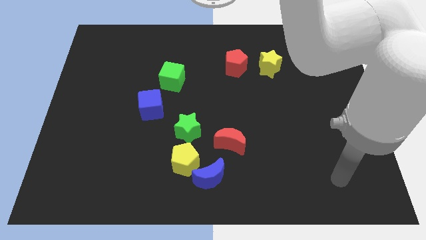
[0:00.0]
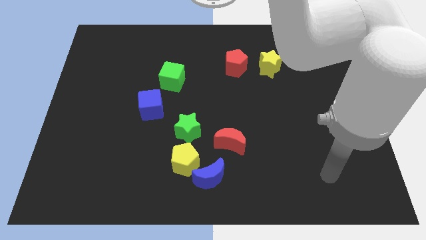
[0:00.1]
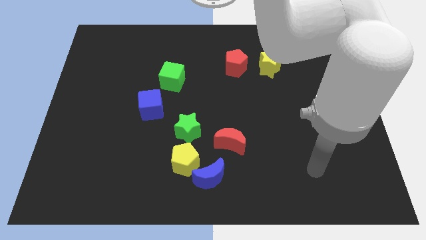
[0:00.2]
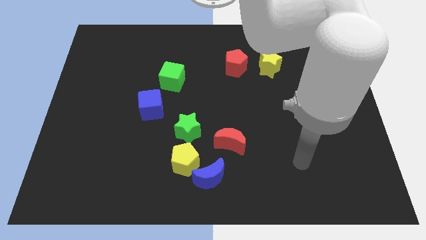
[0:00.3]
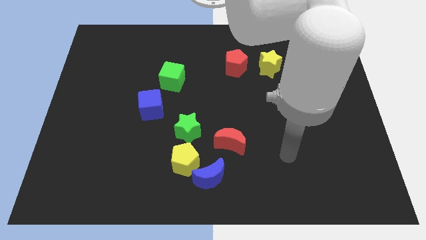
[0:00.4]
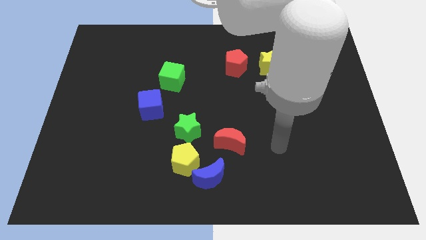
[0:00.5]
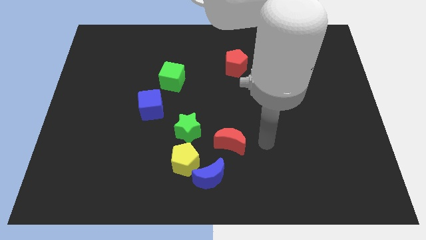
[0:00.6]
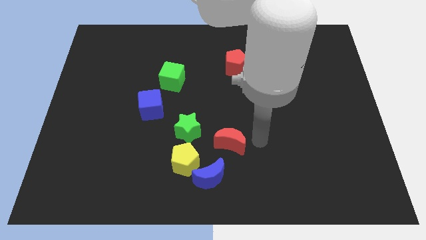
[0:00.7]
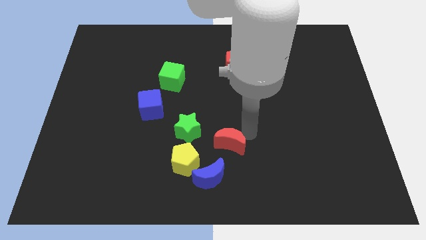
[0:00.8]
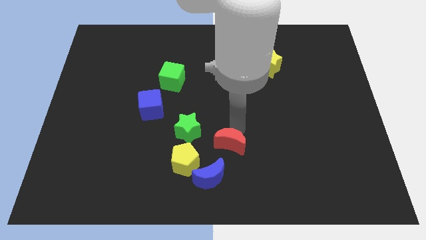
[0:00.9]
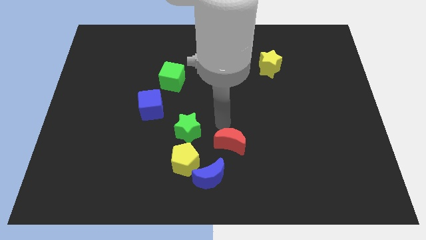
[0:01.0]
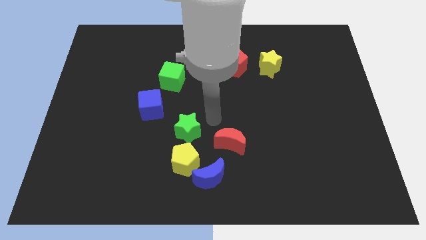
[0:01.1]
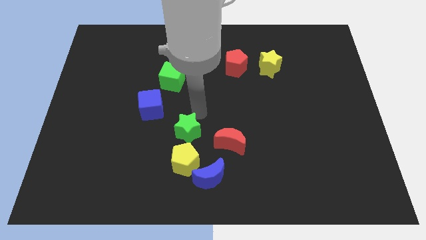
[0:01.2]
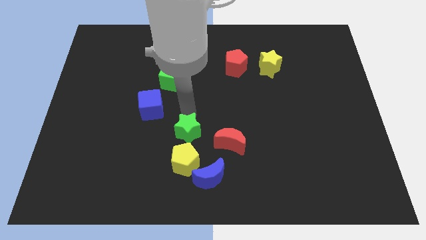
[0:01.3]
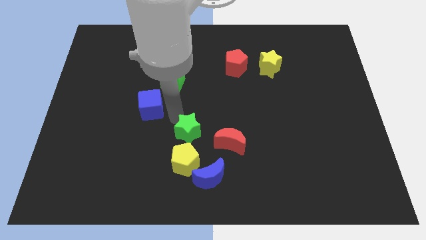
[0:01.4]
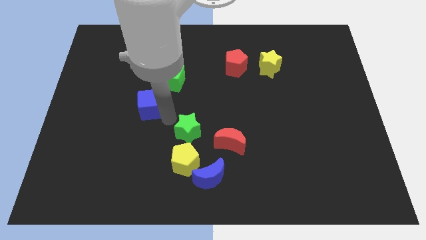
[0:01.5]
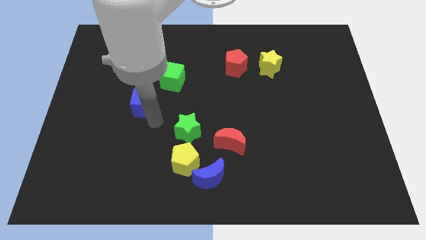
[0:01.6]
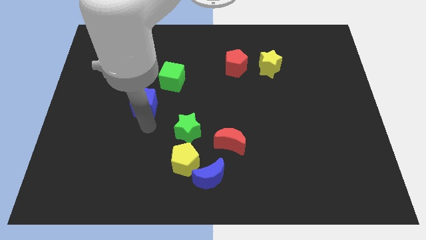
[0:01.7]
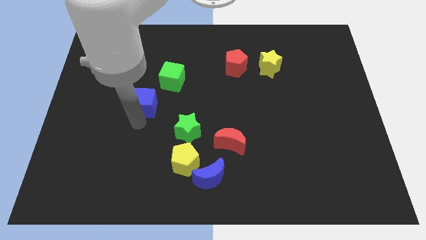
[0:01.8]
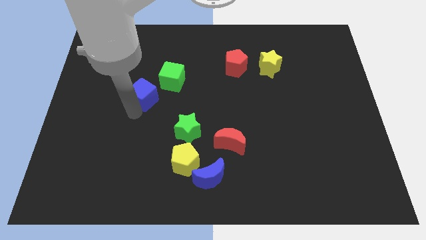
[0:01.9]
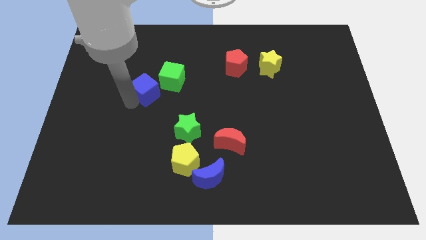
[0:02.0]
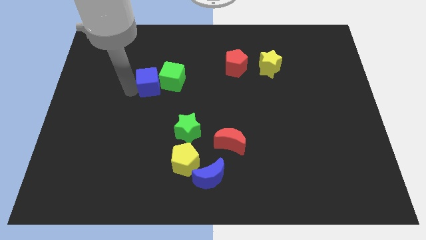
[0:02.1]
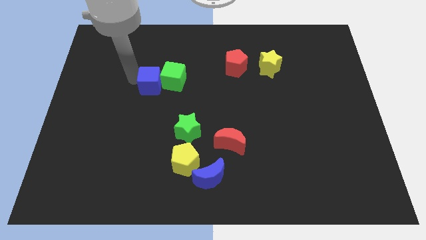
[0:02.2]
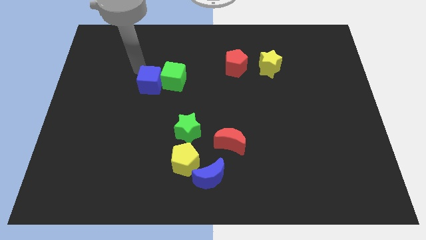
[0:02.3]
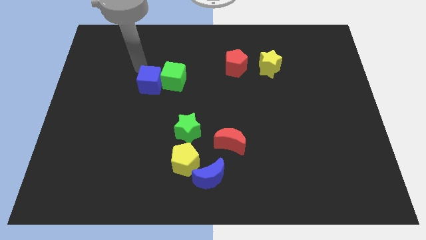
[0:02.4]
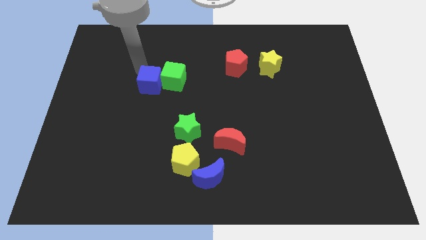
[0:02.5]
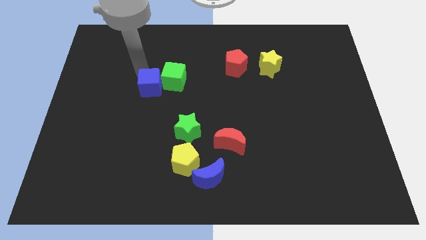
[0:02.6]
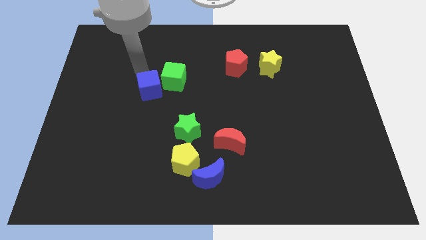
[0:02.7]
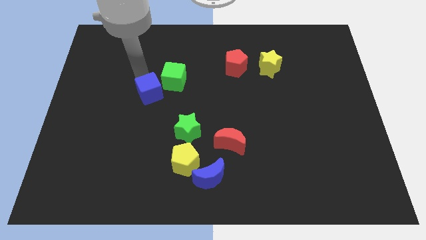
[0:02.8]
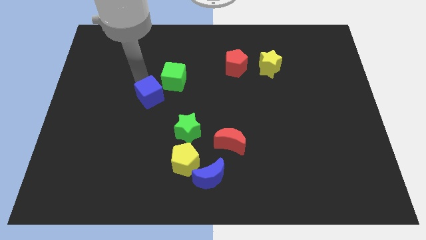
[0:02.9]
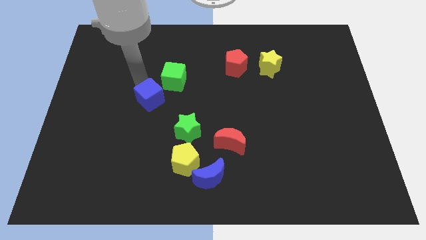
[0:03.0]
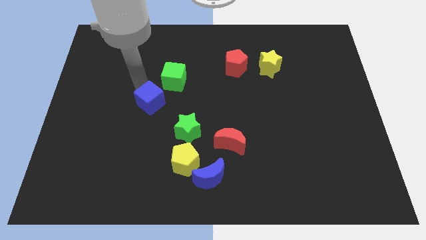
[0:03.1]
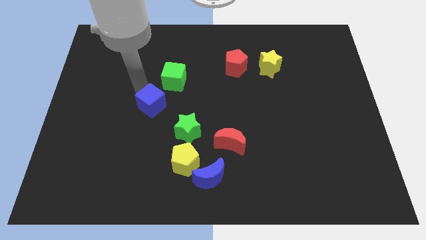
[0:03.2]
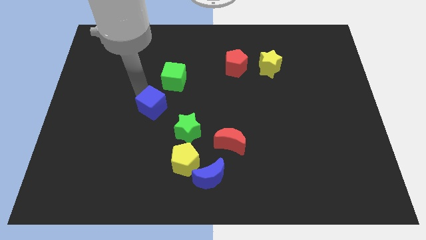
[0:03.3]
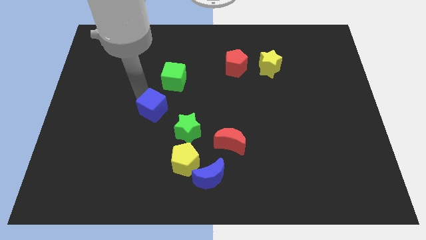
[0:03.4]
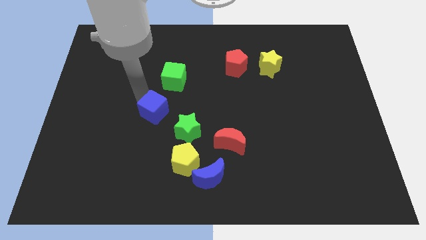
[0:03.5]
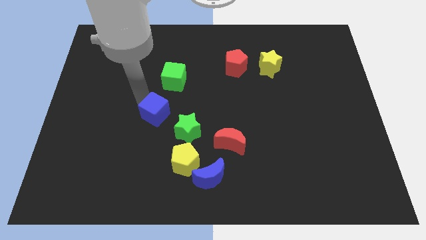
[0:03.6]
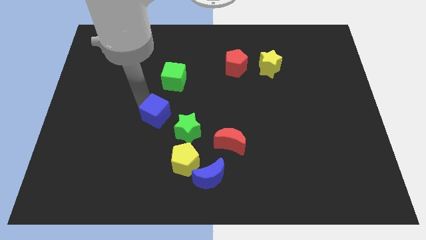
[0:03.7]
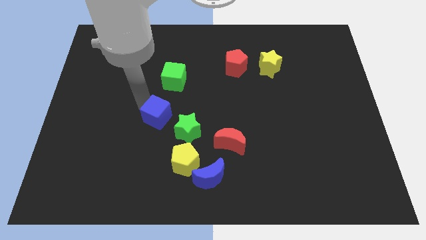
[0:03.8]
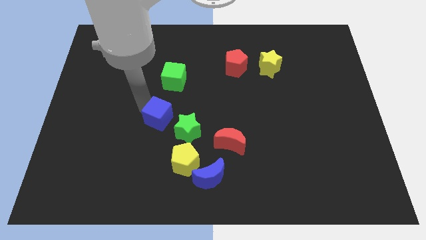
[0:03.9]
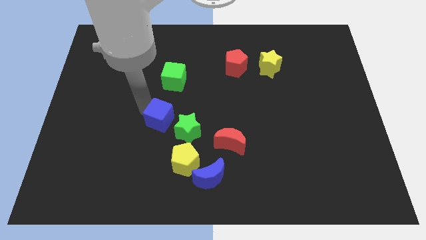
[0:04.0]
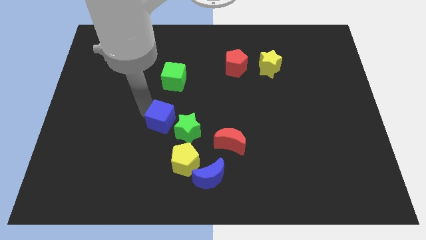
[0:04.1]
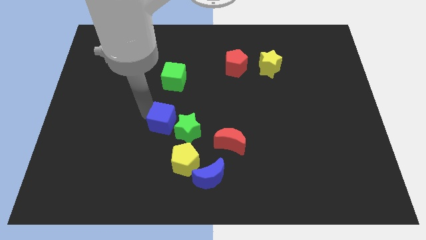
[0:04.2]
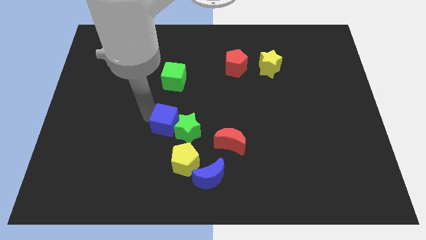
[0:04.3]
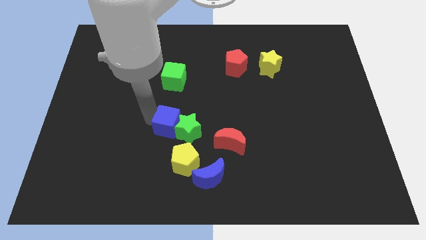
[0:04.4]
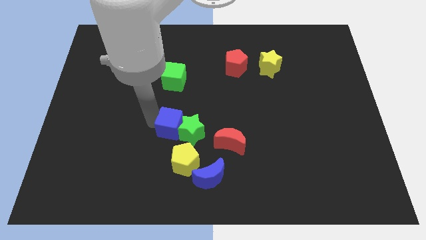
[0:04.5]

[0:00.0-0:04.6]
slide the blue cube diagonally down and to the right slightly

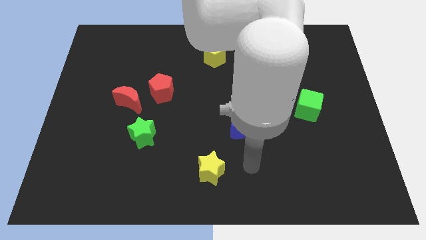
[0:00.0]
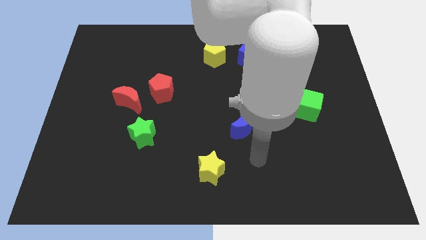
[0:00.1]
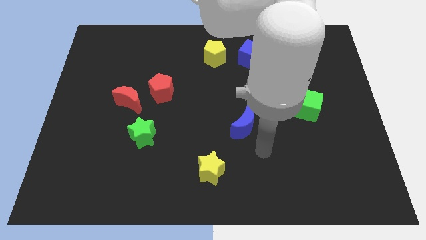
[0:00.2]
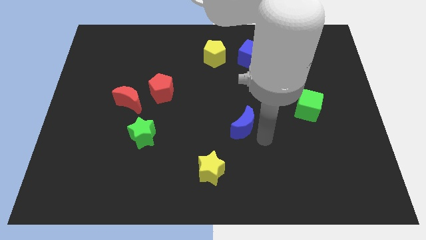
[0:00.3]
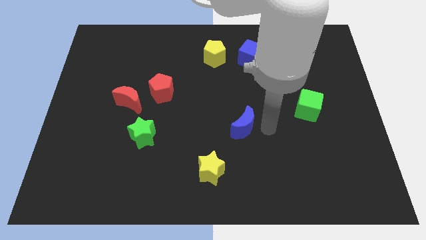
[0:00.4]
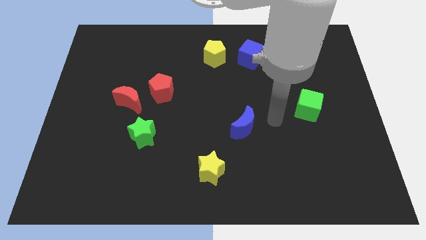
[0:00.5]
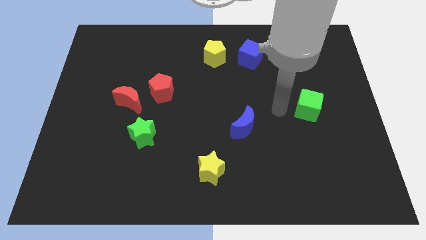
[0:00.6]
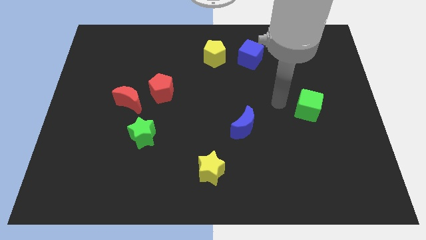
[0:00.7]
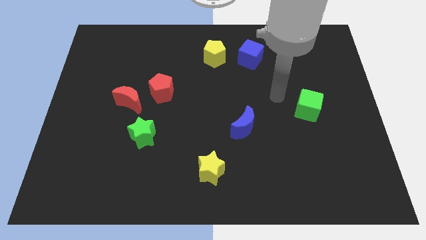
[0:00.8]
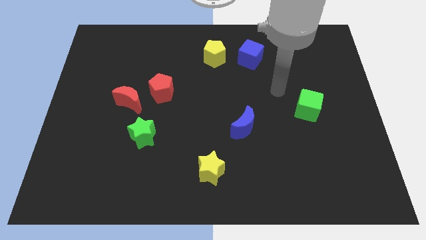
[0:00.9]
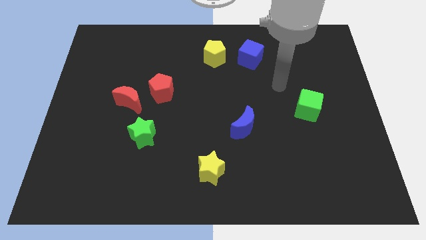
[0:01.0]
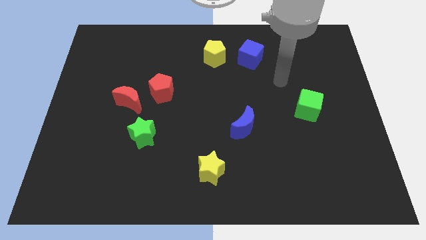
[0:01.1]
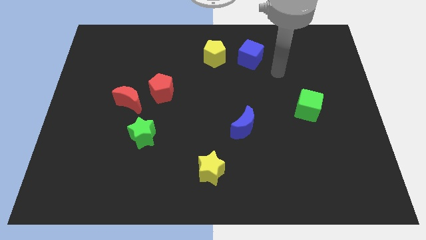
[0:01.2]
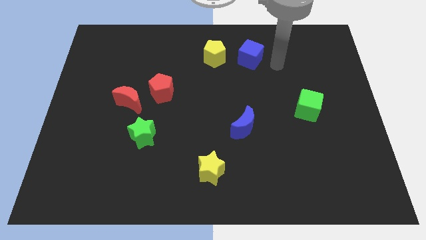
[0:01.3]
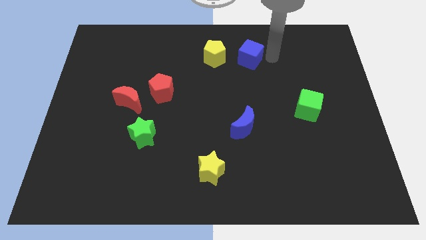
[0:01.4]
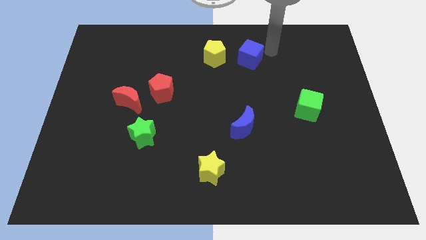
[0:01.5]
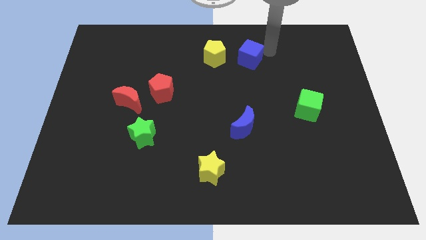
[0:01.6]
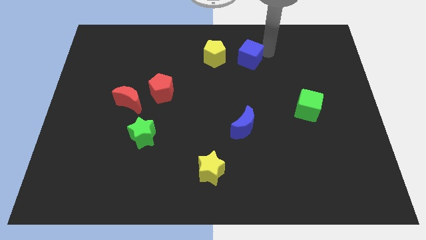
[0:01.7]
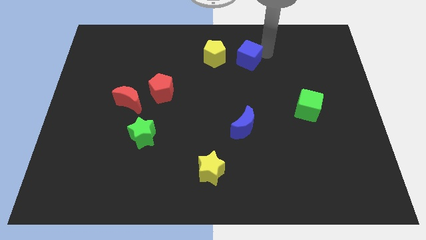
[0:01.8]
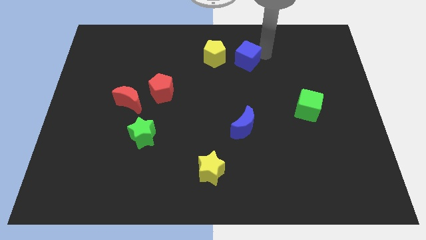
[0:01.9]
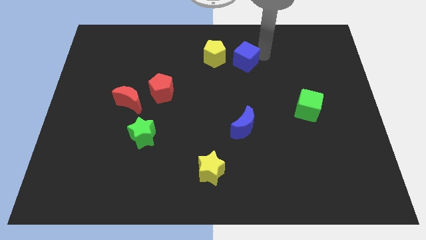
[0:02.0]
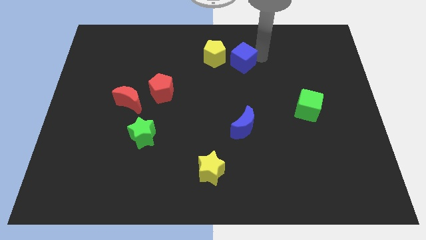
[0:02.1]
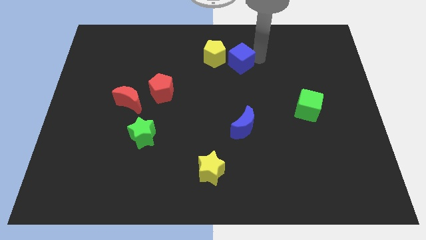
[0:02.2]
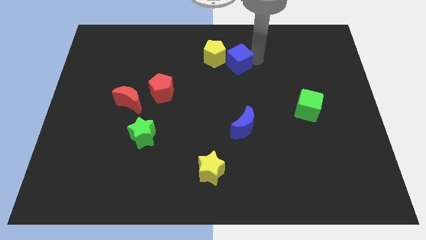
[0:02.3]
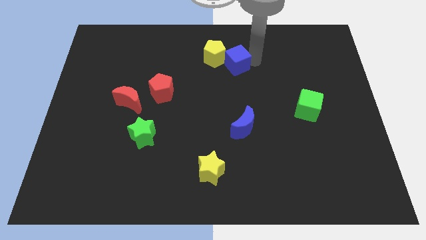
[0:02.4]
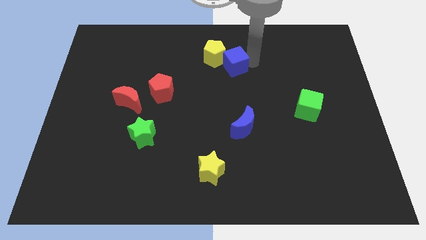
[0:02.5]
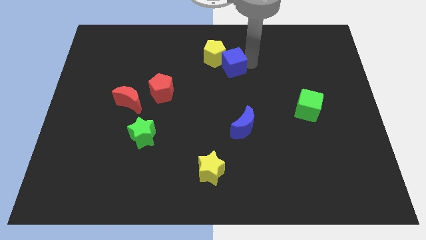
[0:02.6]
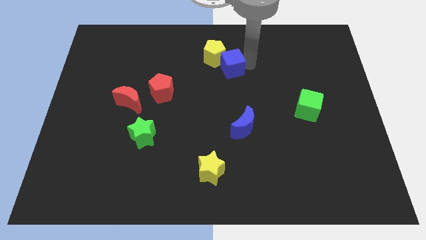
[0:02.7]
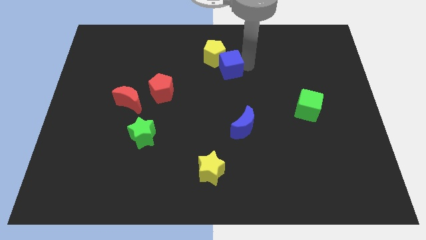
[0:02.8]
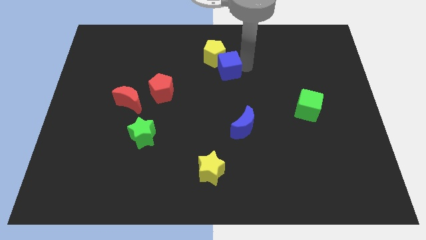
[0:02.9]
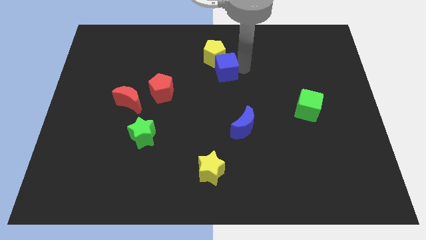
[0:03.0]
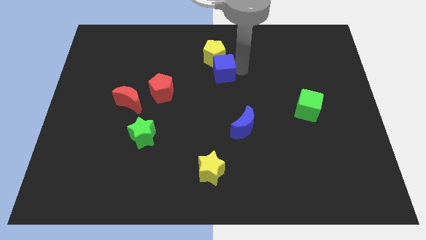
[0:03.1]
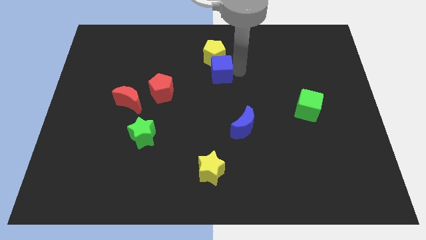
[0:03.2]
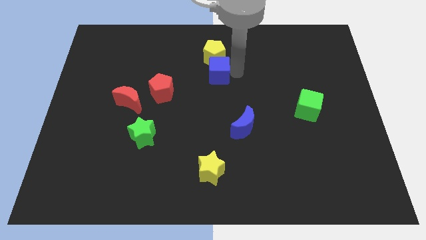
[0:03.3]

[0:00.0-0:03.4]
push the blue cube a little to the left

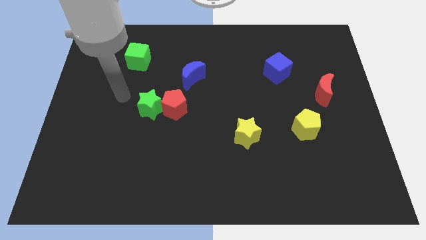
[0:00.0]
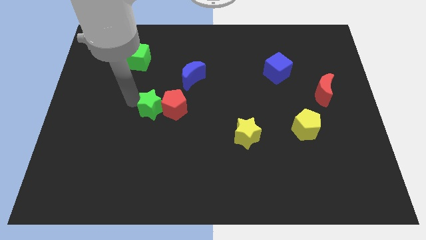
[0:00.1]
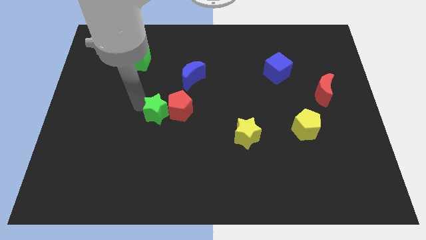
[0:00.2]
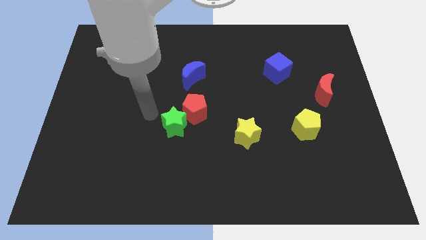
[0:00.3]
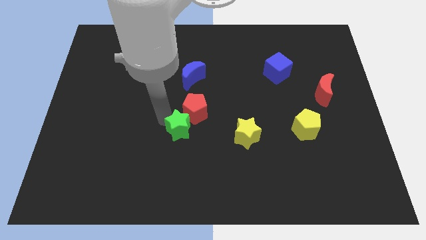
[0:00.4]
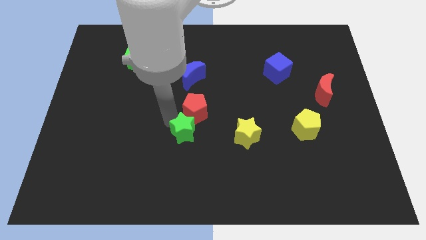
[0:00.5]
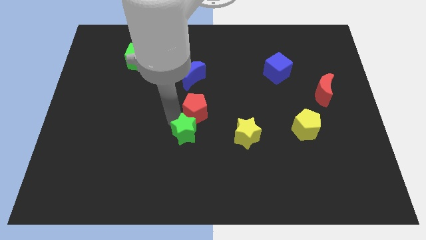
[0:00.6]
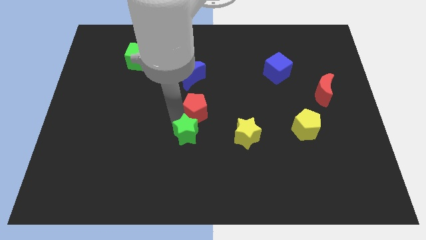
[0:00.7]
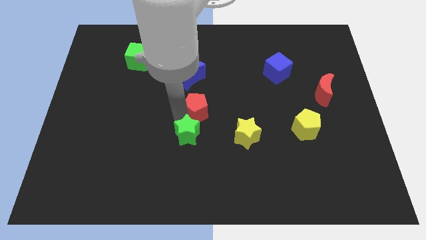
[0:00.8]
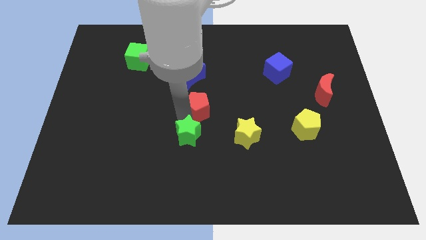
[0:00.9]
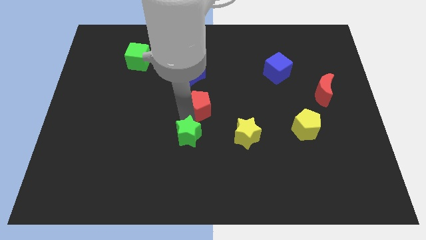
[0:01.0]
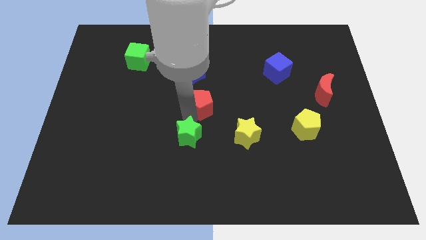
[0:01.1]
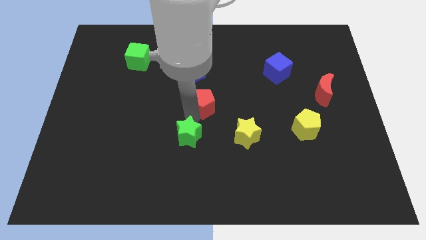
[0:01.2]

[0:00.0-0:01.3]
push the red pentagon a bit right
